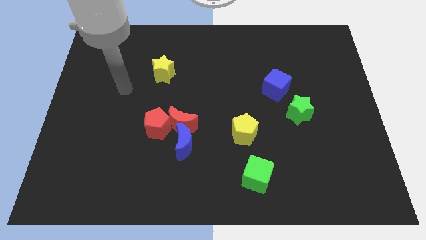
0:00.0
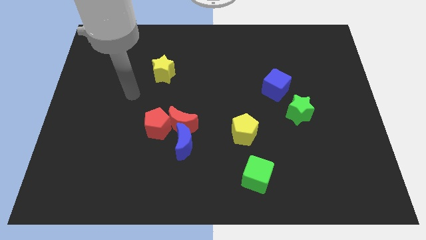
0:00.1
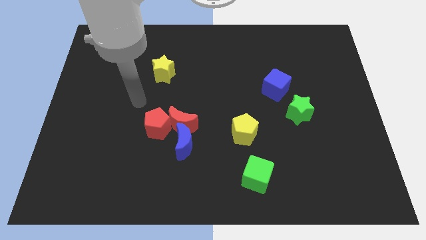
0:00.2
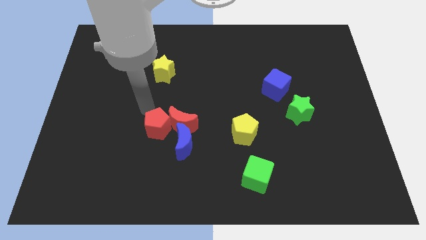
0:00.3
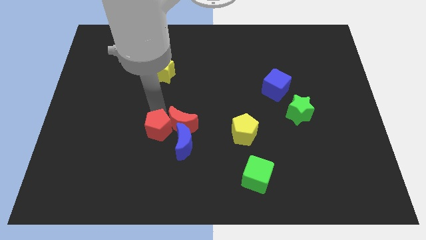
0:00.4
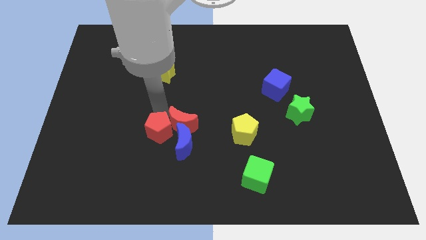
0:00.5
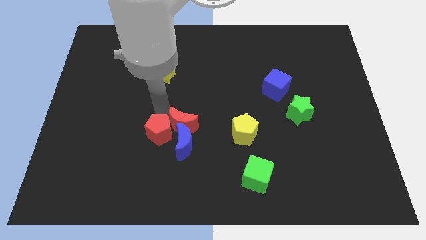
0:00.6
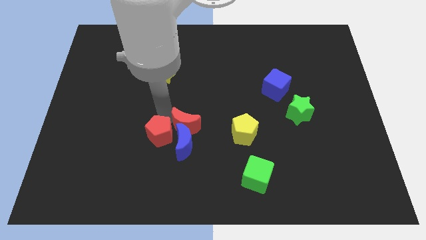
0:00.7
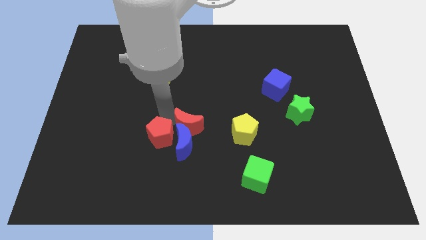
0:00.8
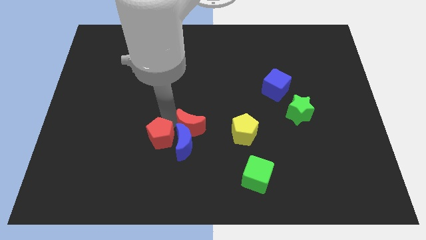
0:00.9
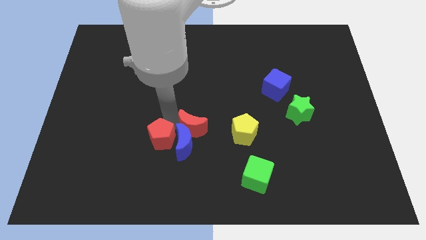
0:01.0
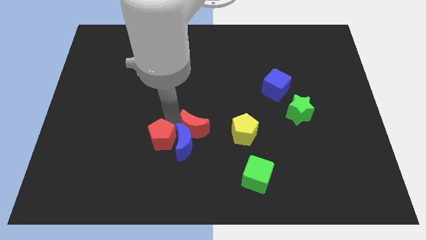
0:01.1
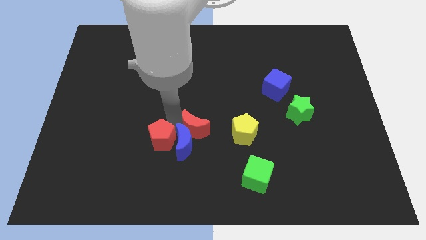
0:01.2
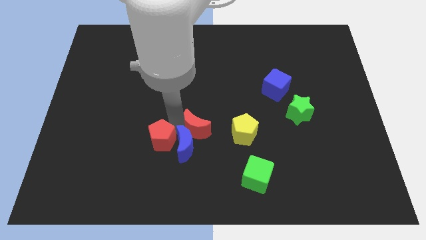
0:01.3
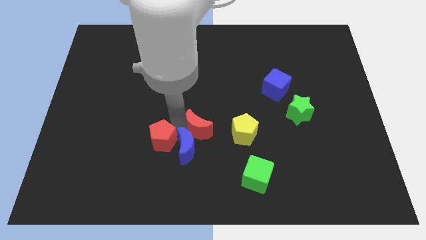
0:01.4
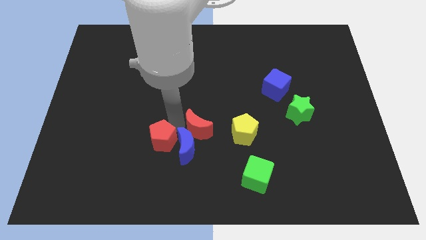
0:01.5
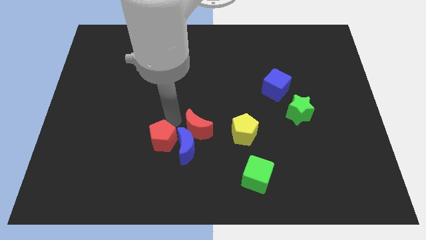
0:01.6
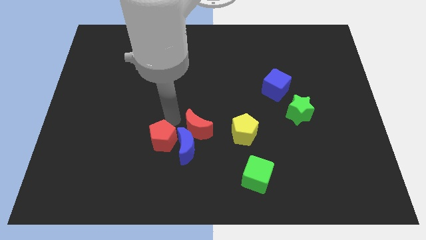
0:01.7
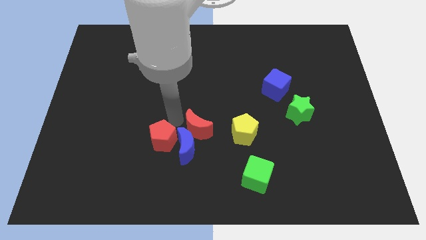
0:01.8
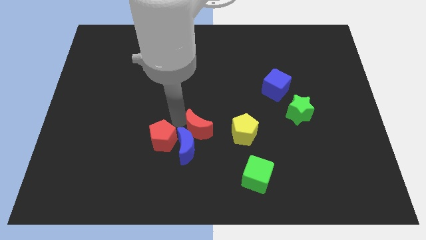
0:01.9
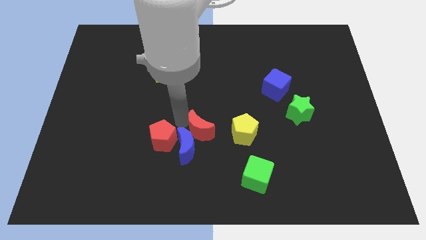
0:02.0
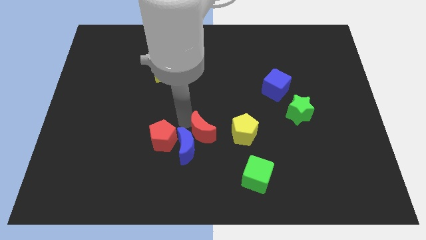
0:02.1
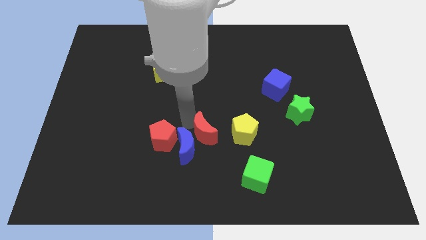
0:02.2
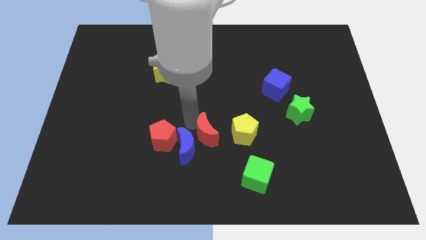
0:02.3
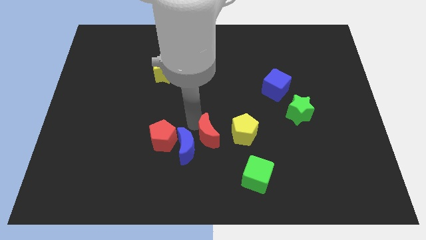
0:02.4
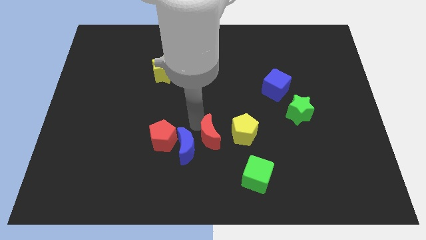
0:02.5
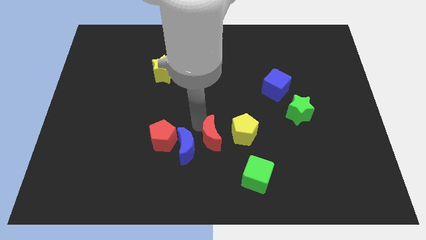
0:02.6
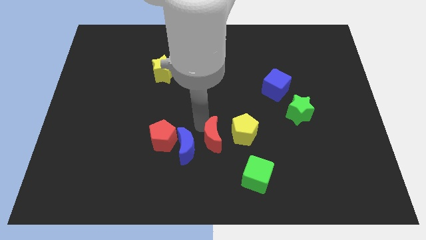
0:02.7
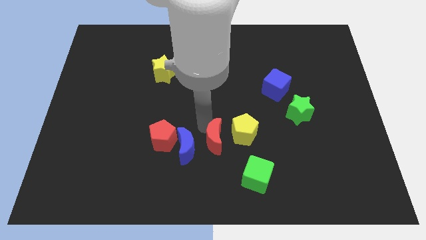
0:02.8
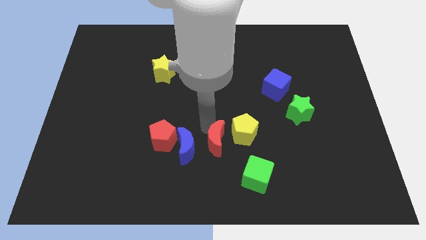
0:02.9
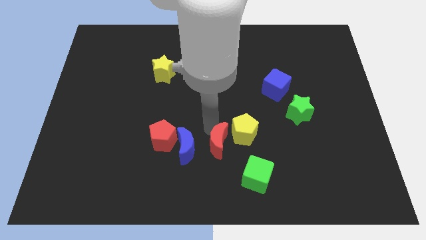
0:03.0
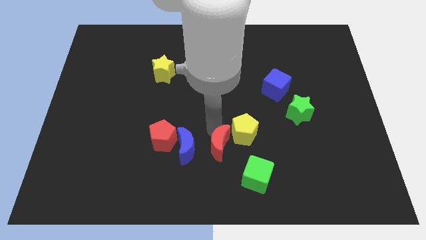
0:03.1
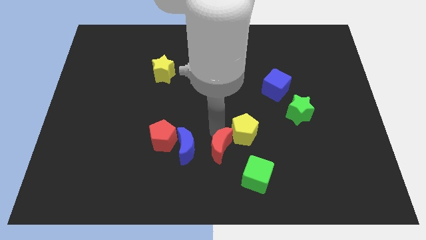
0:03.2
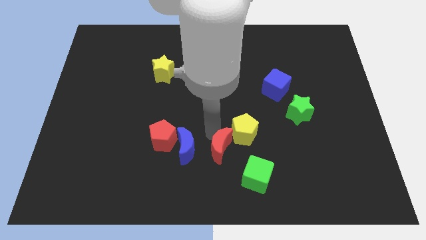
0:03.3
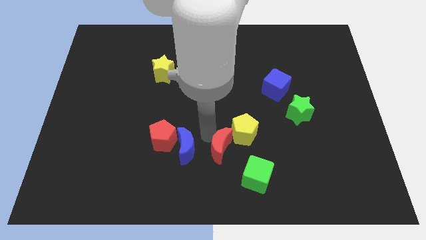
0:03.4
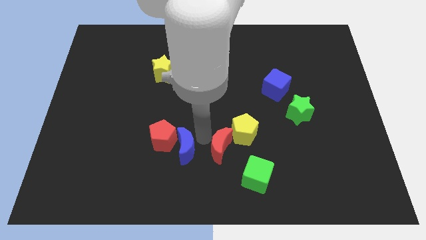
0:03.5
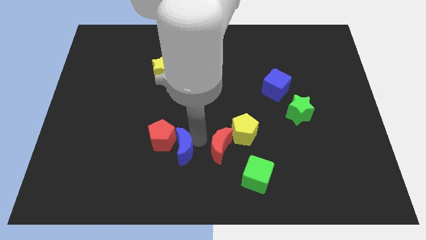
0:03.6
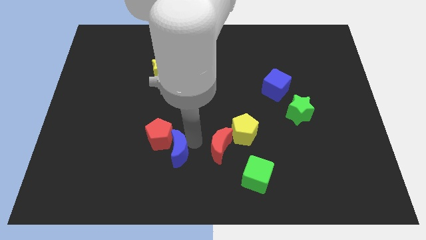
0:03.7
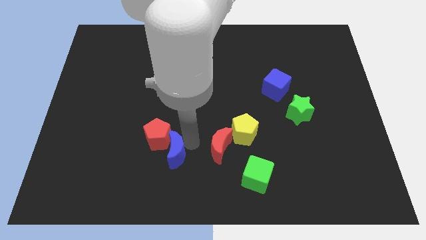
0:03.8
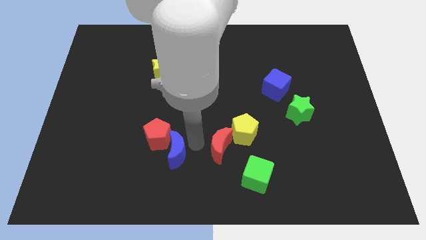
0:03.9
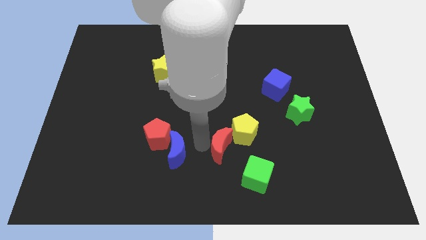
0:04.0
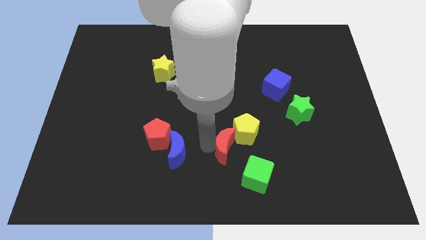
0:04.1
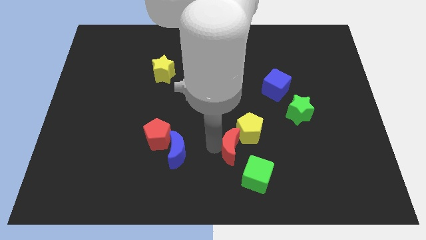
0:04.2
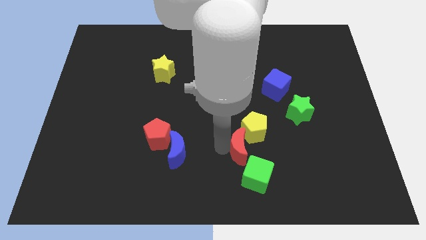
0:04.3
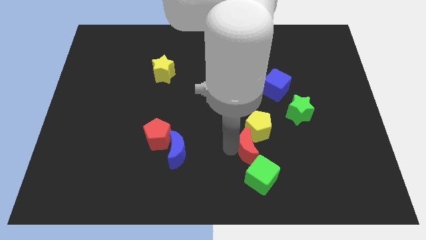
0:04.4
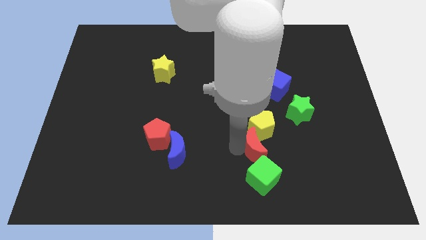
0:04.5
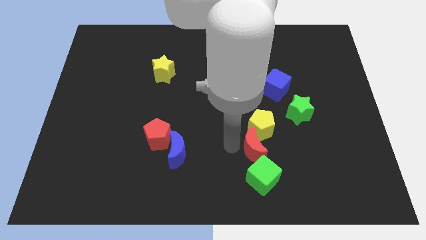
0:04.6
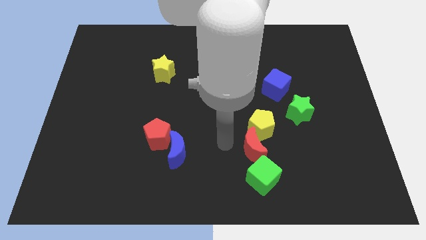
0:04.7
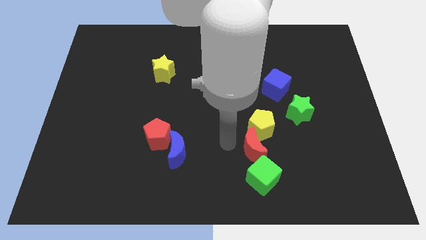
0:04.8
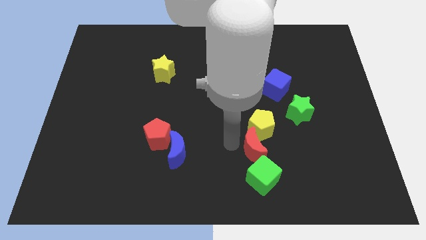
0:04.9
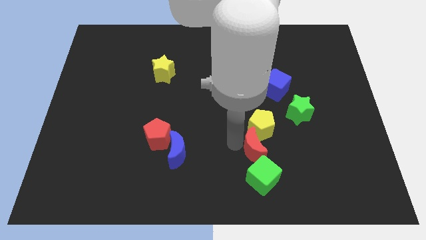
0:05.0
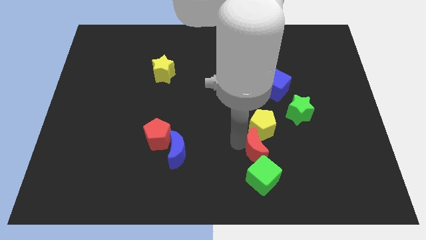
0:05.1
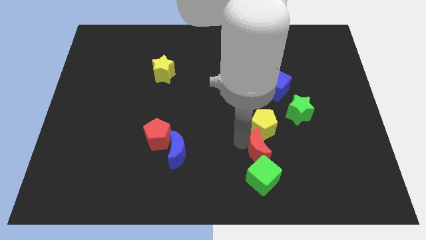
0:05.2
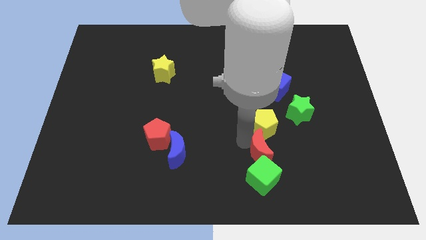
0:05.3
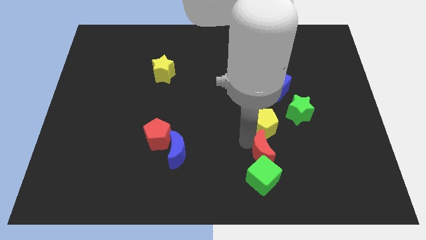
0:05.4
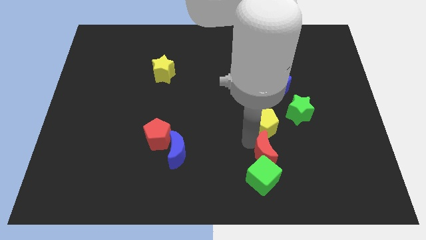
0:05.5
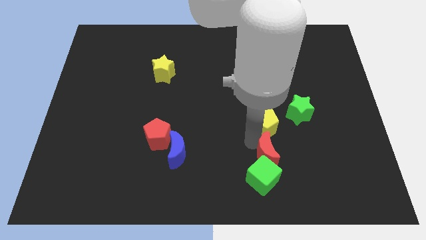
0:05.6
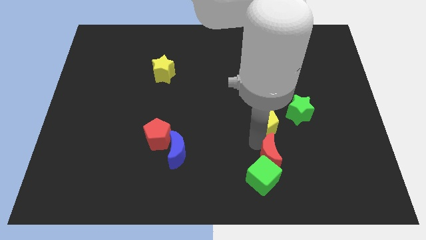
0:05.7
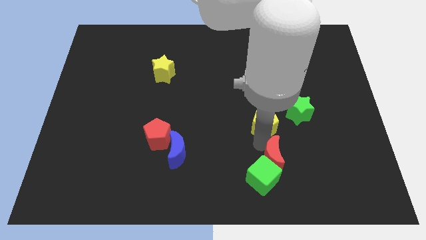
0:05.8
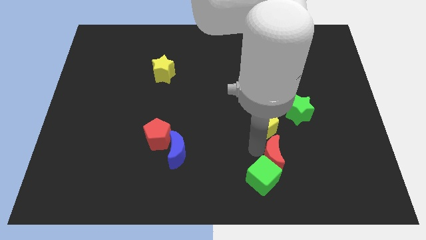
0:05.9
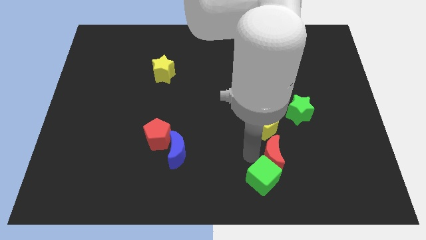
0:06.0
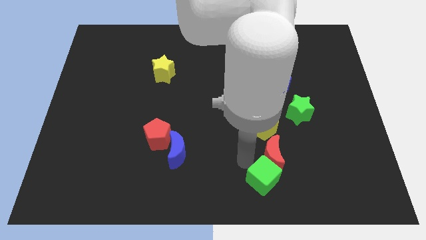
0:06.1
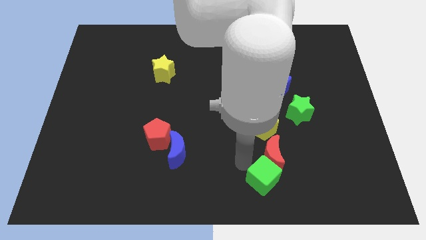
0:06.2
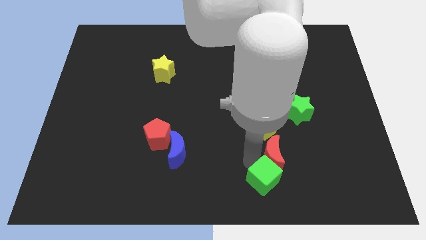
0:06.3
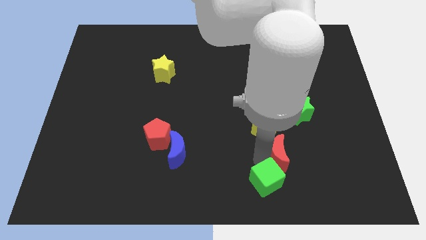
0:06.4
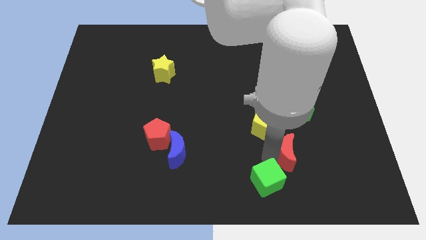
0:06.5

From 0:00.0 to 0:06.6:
move the red moon to the bottom side of the green star

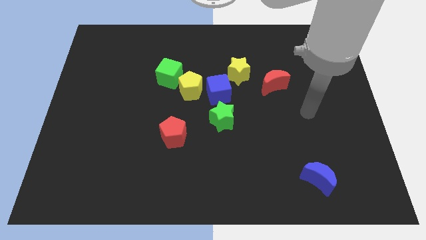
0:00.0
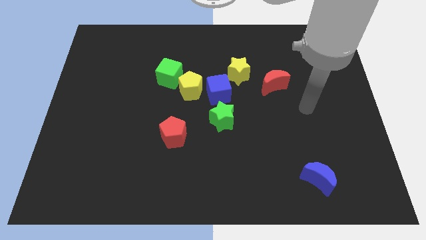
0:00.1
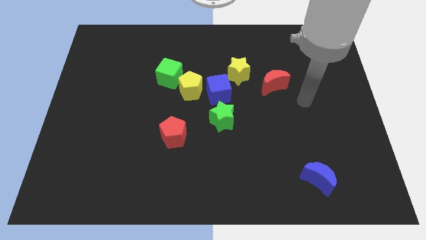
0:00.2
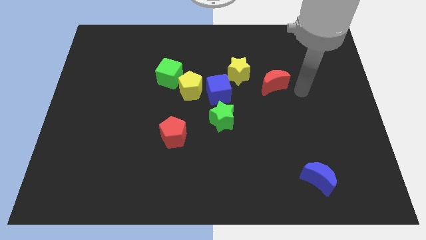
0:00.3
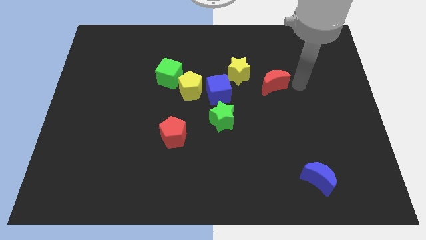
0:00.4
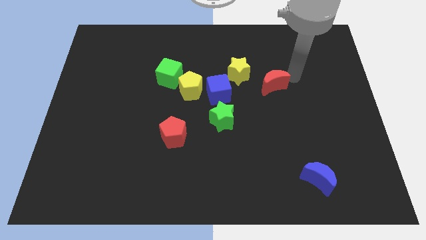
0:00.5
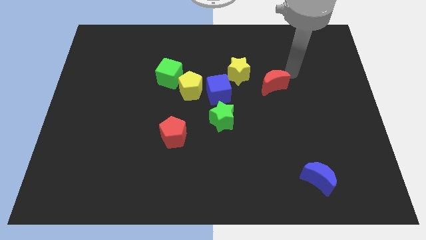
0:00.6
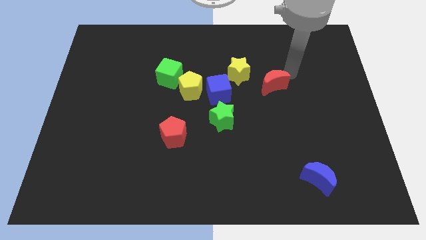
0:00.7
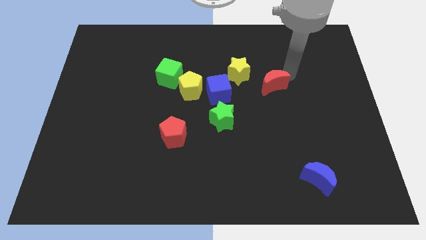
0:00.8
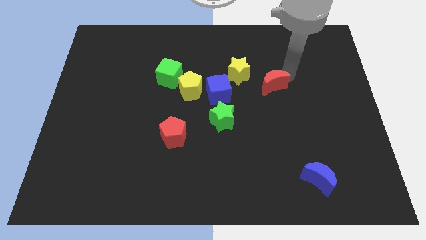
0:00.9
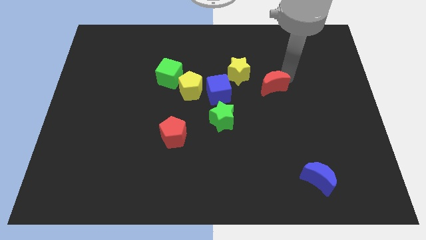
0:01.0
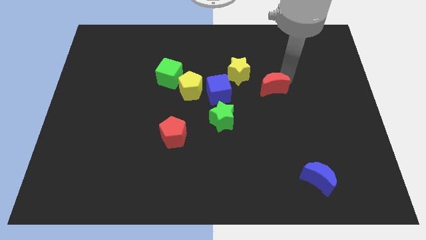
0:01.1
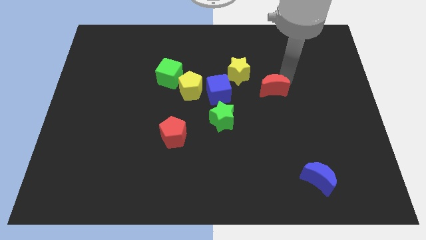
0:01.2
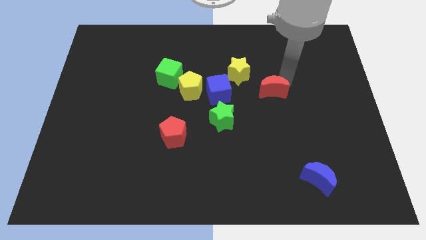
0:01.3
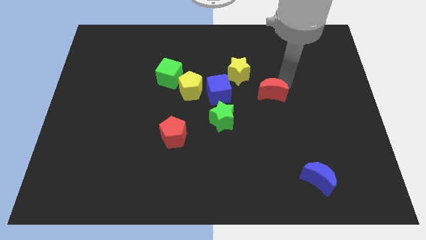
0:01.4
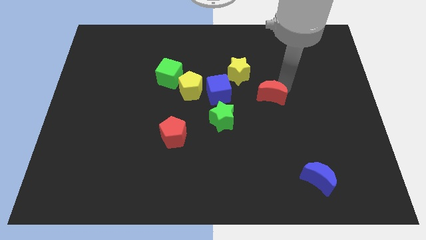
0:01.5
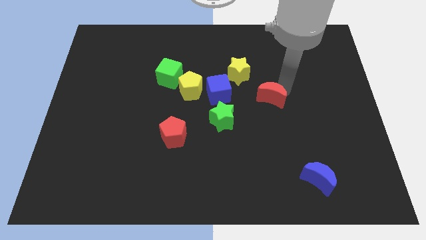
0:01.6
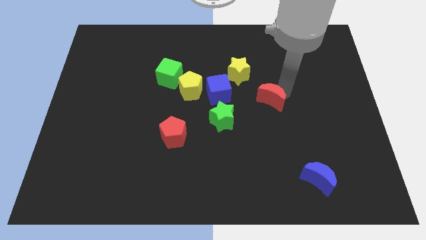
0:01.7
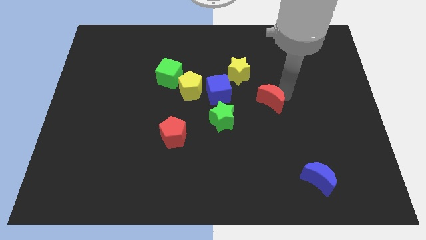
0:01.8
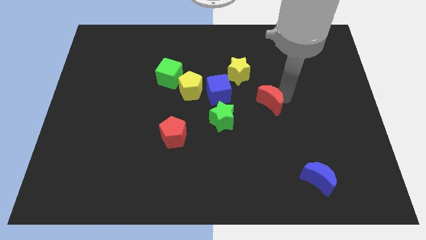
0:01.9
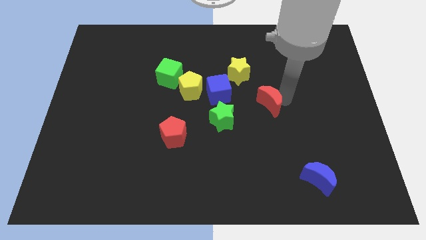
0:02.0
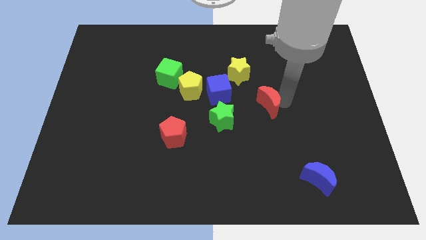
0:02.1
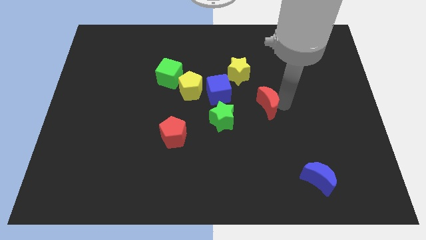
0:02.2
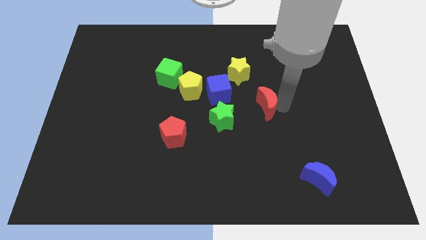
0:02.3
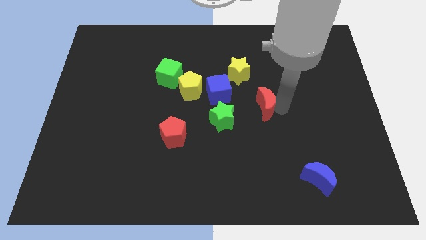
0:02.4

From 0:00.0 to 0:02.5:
push the red moon to the top right side of the green star
